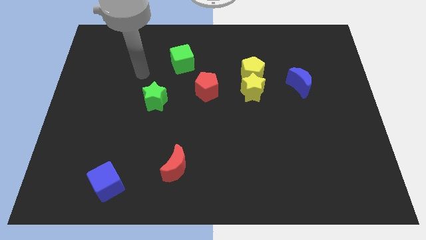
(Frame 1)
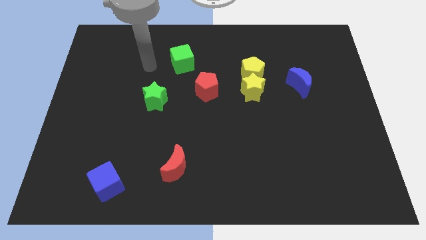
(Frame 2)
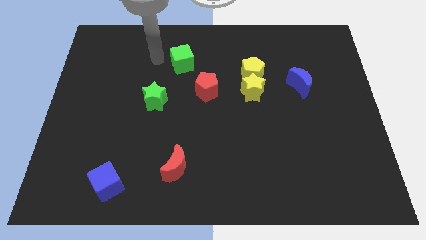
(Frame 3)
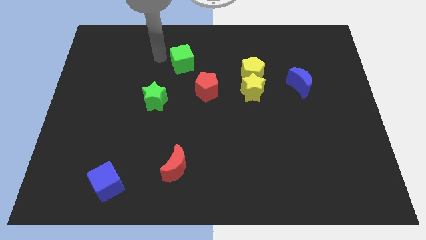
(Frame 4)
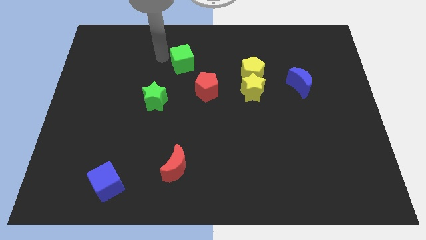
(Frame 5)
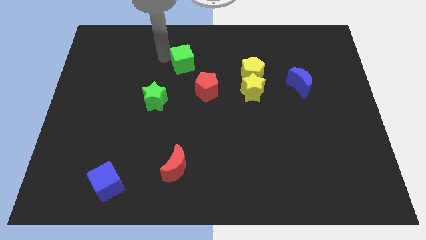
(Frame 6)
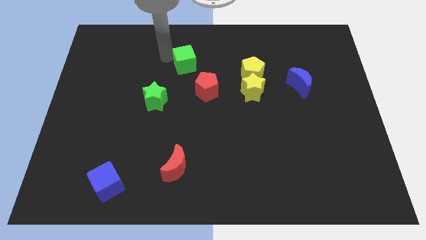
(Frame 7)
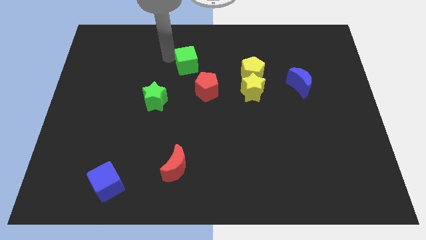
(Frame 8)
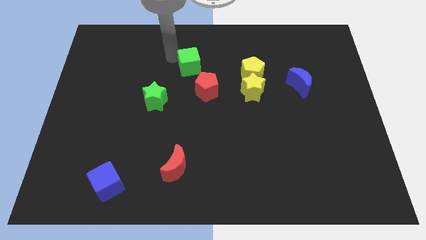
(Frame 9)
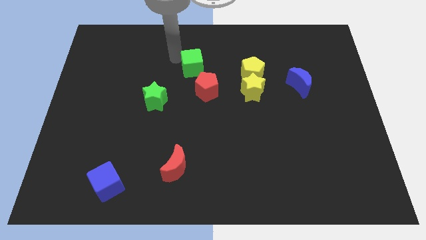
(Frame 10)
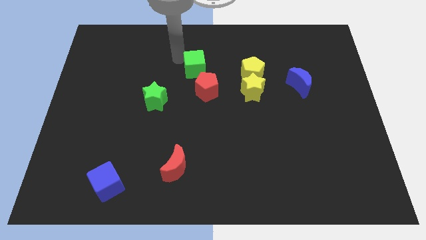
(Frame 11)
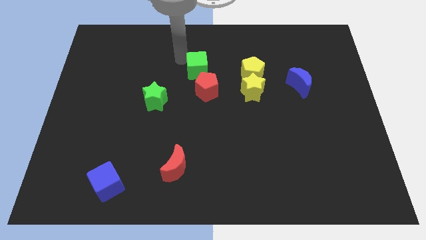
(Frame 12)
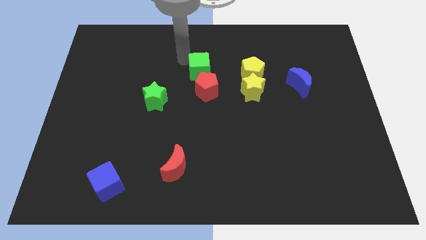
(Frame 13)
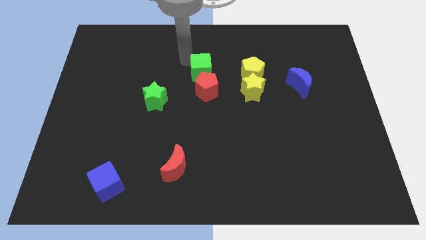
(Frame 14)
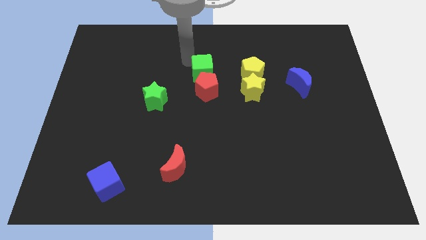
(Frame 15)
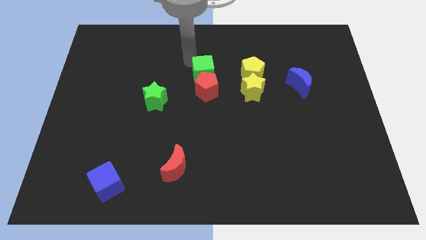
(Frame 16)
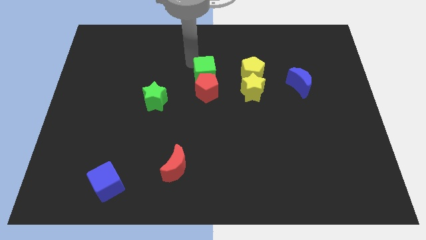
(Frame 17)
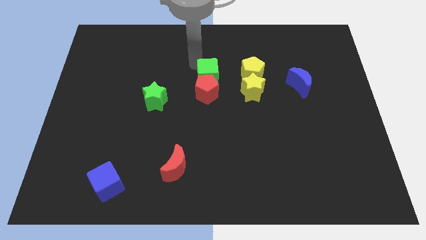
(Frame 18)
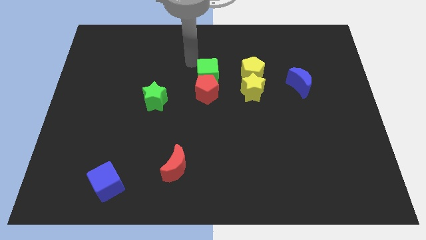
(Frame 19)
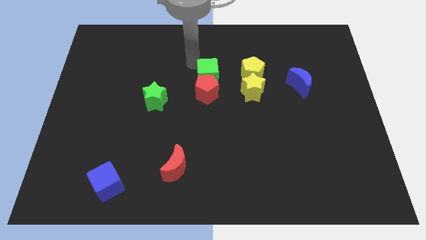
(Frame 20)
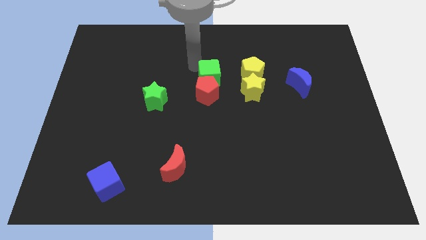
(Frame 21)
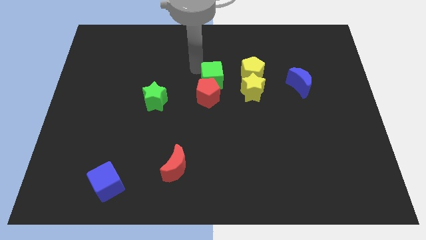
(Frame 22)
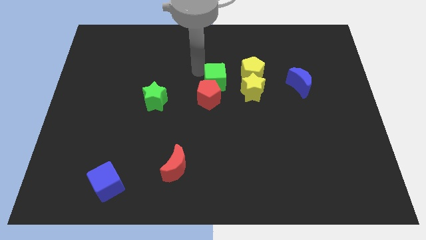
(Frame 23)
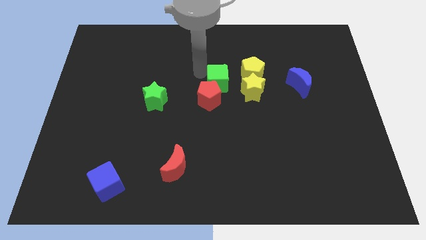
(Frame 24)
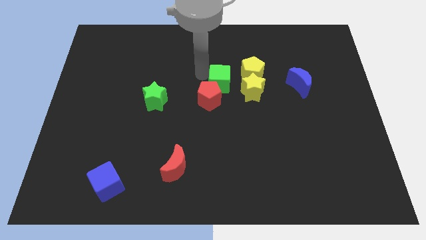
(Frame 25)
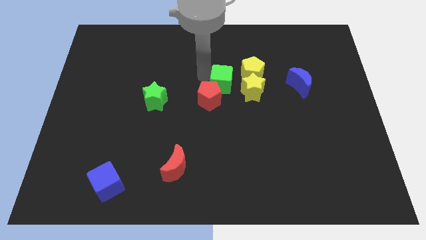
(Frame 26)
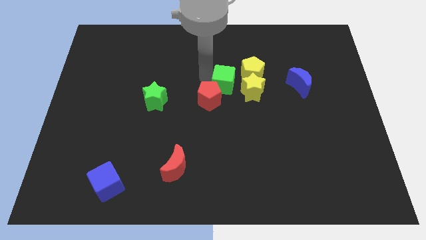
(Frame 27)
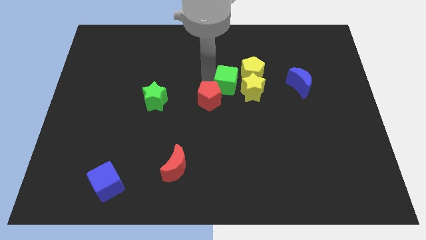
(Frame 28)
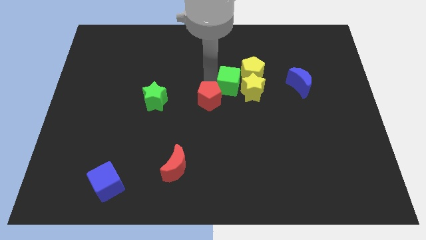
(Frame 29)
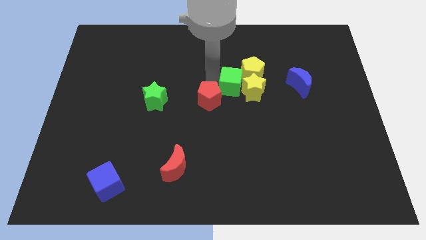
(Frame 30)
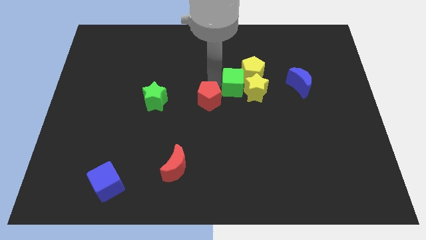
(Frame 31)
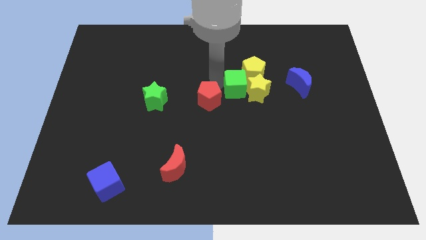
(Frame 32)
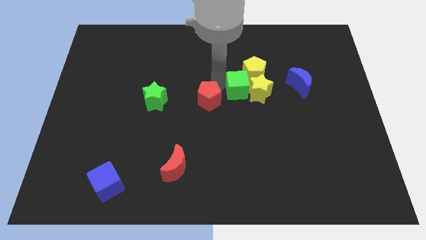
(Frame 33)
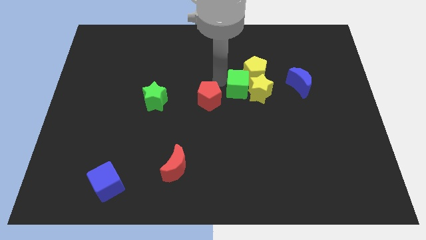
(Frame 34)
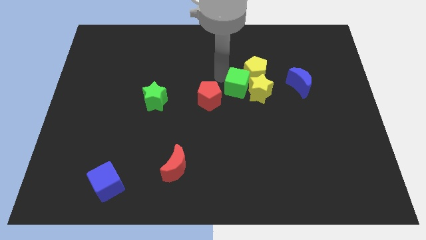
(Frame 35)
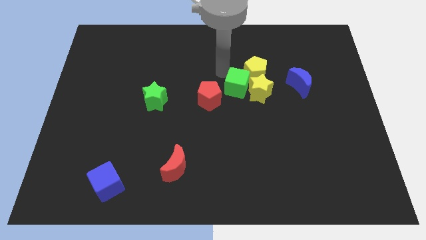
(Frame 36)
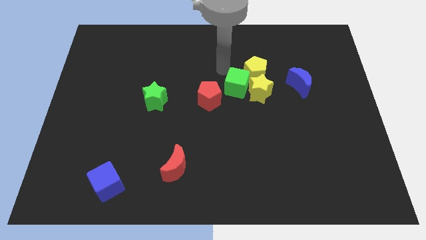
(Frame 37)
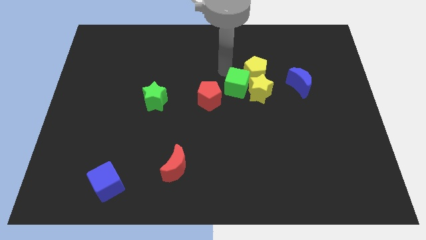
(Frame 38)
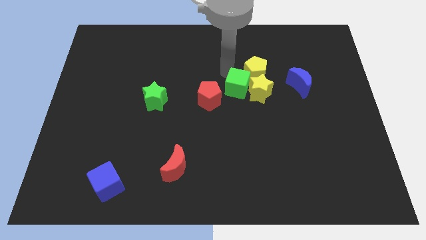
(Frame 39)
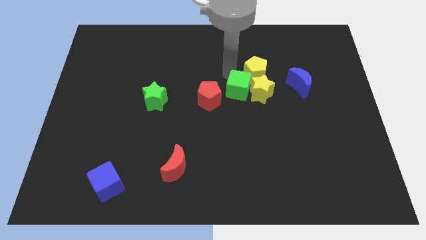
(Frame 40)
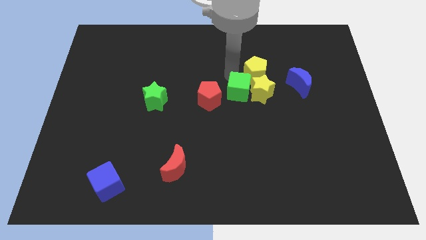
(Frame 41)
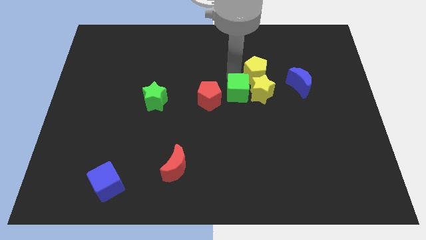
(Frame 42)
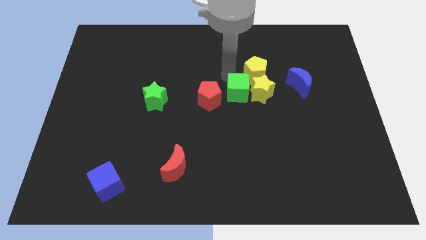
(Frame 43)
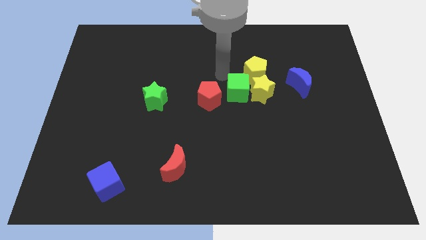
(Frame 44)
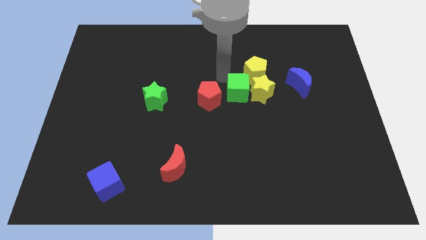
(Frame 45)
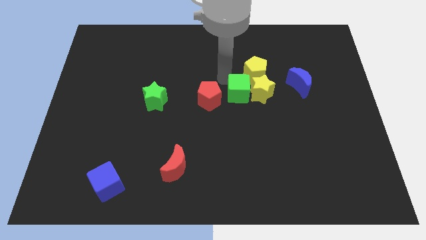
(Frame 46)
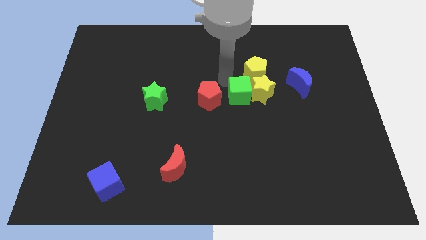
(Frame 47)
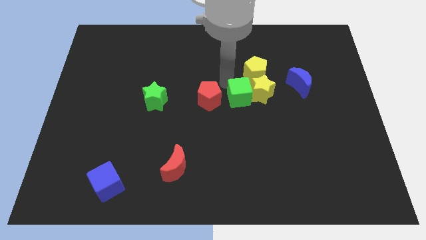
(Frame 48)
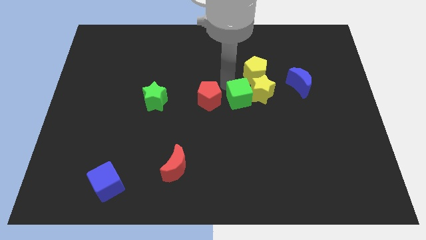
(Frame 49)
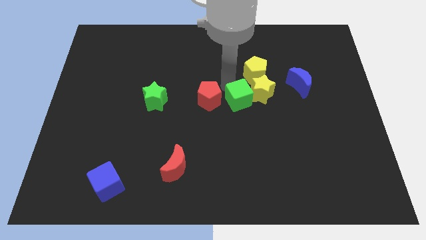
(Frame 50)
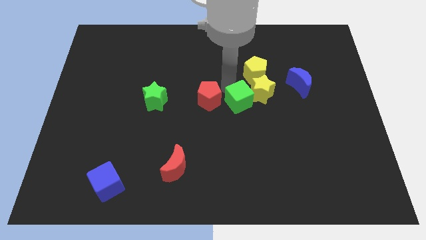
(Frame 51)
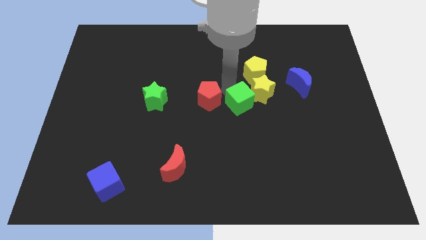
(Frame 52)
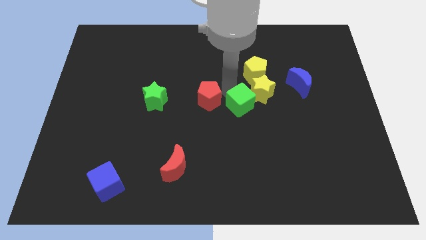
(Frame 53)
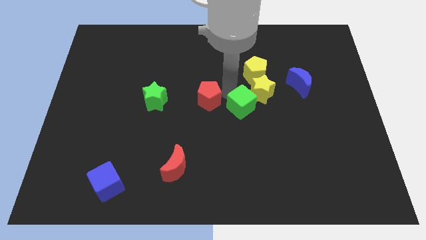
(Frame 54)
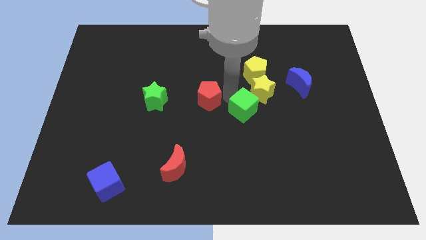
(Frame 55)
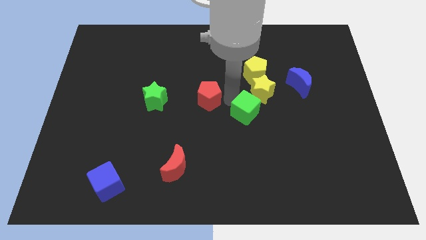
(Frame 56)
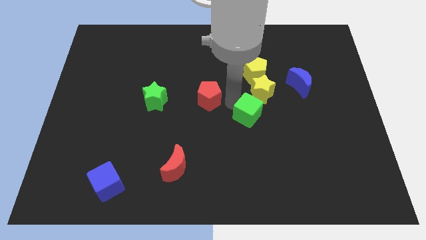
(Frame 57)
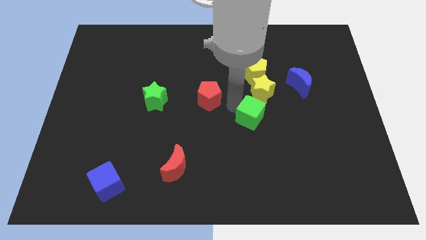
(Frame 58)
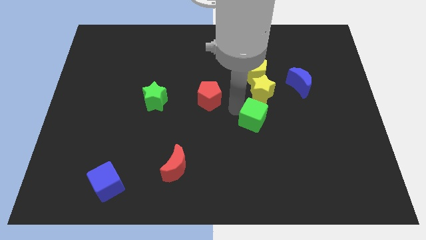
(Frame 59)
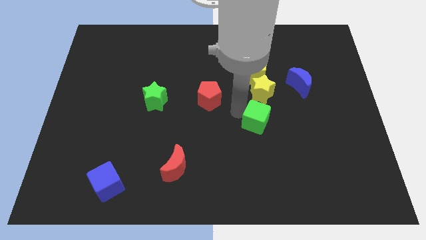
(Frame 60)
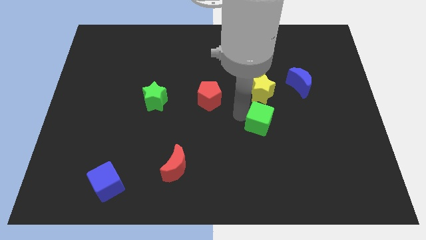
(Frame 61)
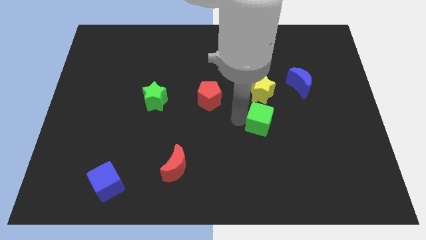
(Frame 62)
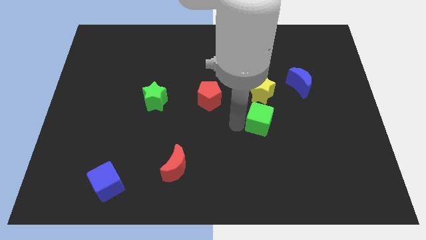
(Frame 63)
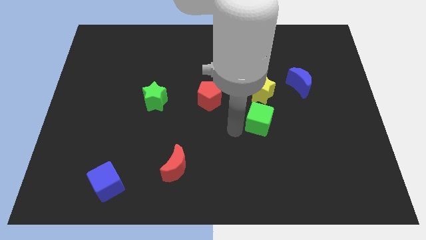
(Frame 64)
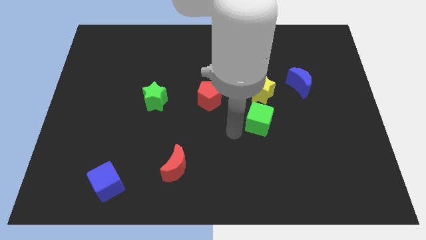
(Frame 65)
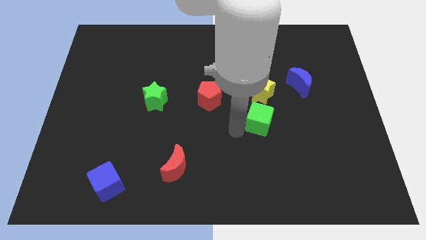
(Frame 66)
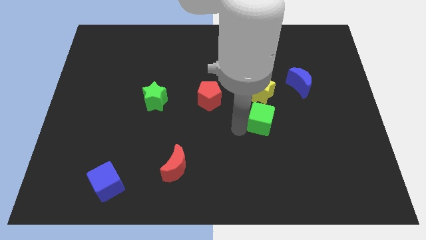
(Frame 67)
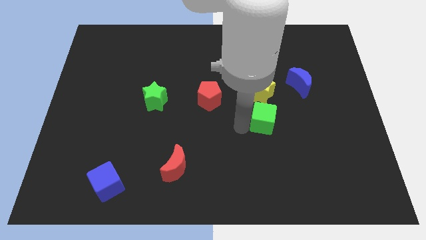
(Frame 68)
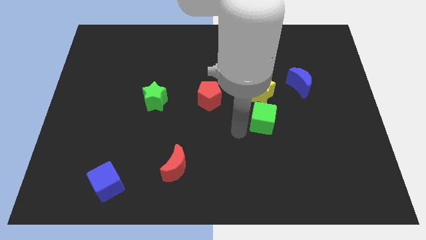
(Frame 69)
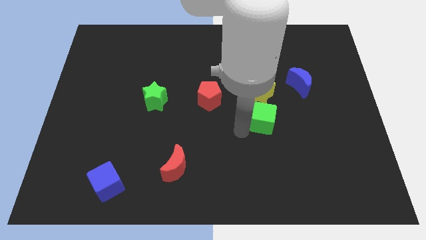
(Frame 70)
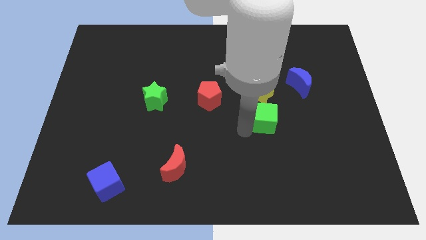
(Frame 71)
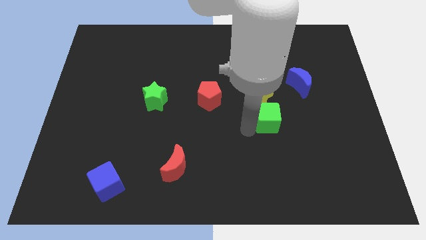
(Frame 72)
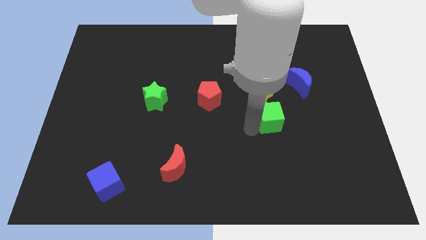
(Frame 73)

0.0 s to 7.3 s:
move the green cube to the bottom right of the yellow star
